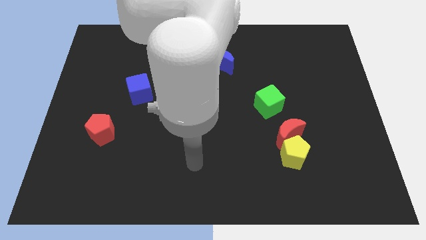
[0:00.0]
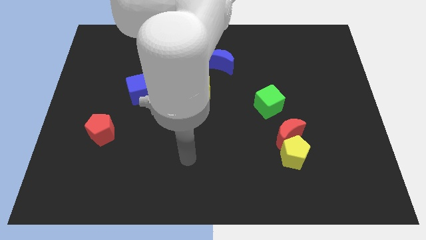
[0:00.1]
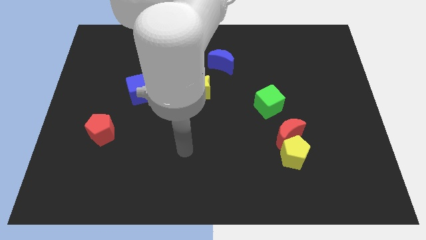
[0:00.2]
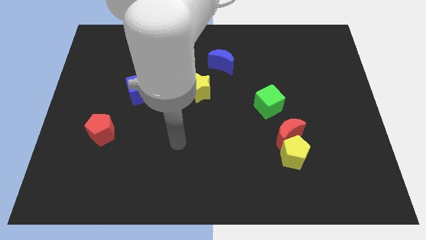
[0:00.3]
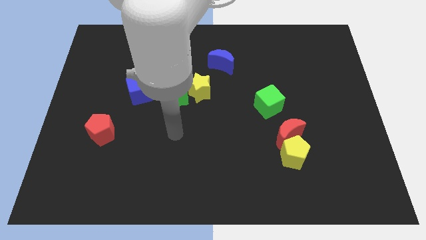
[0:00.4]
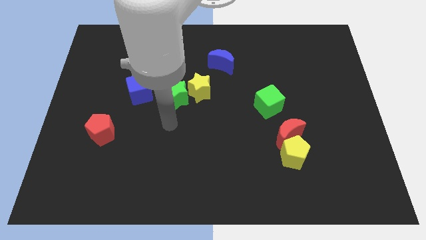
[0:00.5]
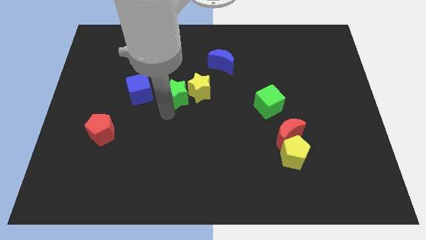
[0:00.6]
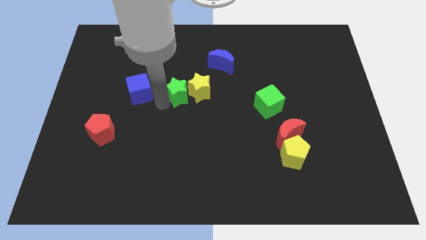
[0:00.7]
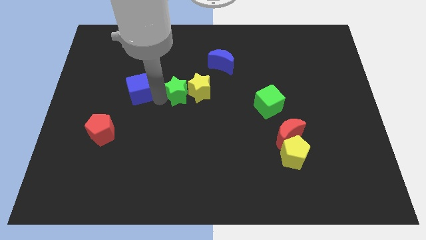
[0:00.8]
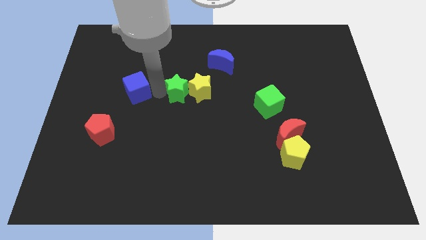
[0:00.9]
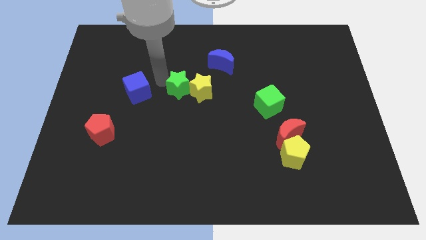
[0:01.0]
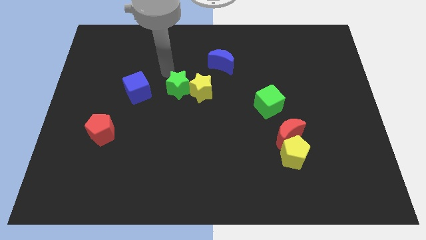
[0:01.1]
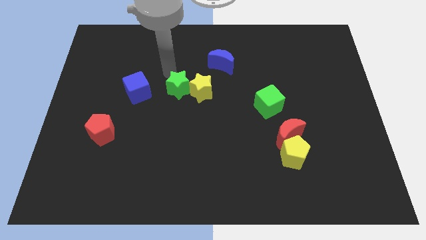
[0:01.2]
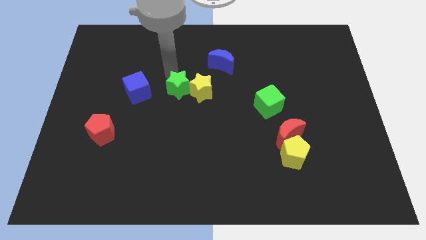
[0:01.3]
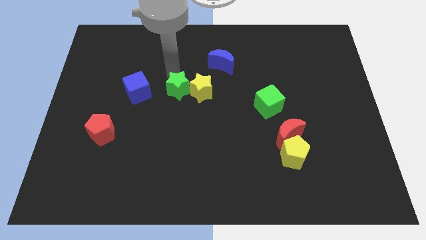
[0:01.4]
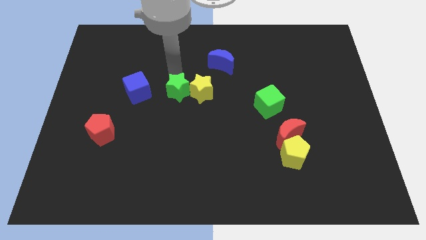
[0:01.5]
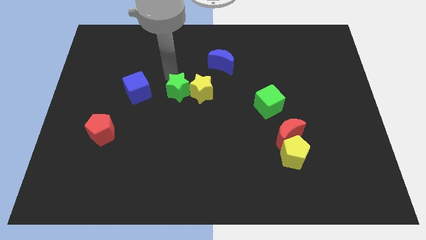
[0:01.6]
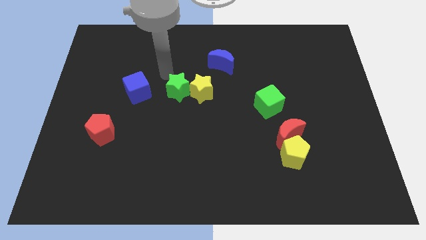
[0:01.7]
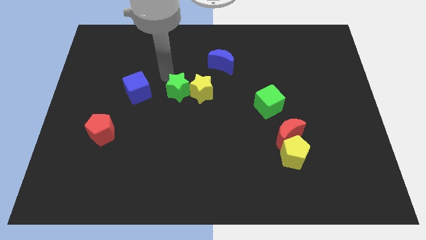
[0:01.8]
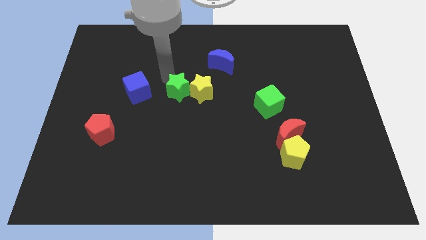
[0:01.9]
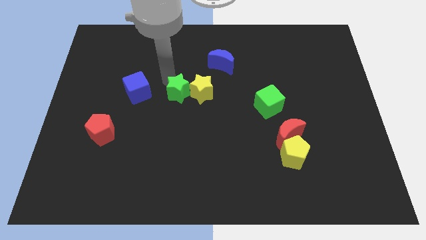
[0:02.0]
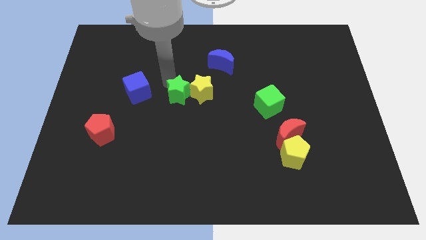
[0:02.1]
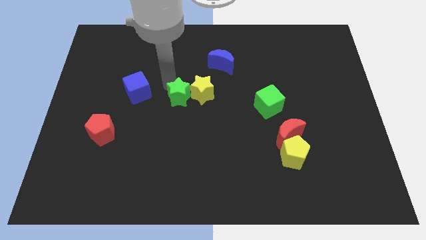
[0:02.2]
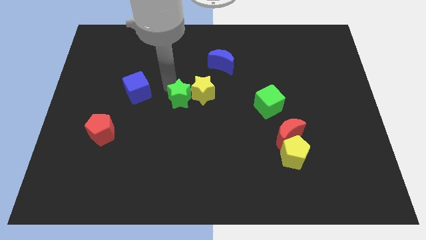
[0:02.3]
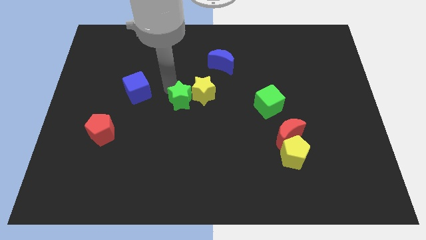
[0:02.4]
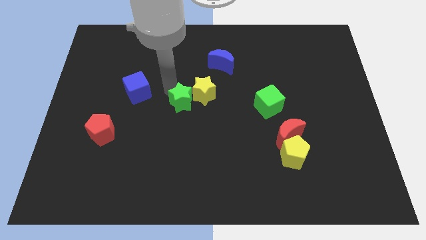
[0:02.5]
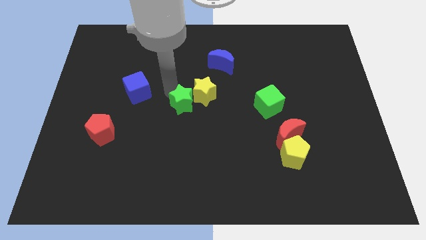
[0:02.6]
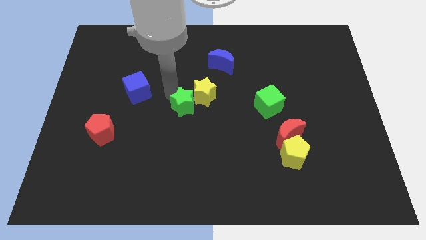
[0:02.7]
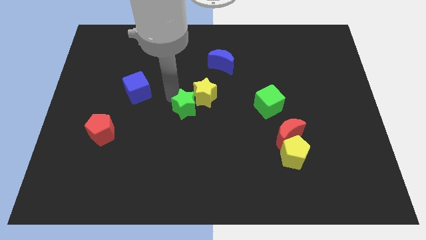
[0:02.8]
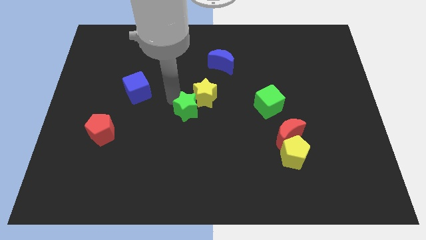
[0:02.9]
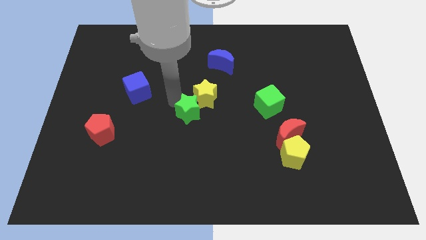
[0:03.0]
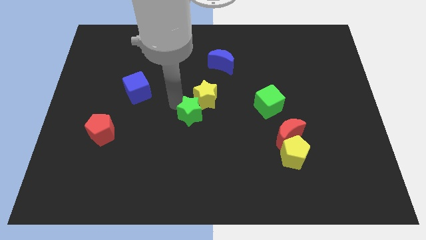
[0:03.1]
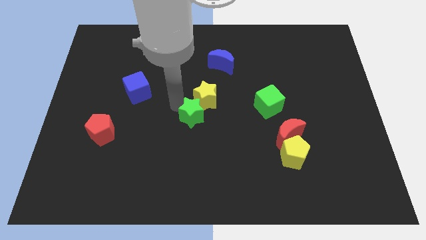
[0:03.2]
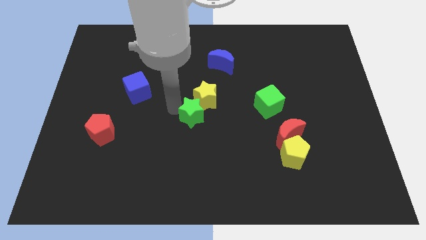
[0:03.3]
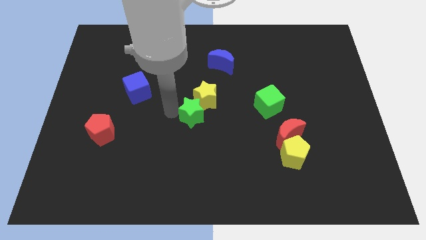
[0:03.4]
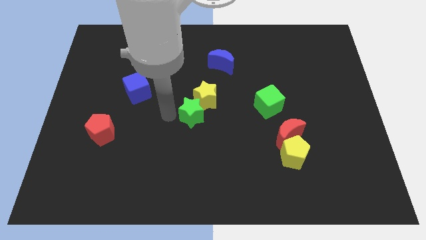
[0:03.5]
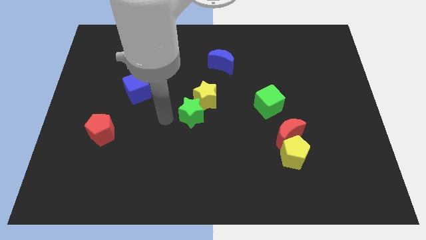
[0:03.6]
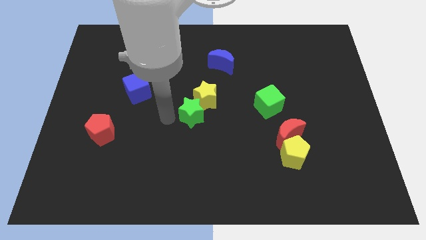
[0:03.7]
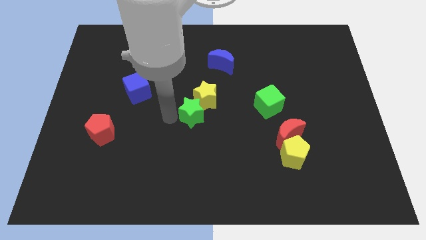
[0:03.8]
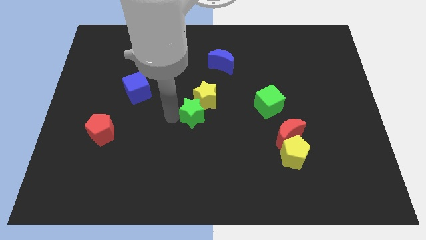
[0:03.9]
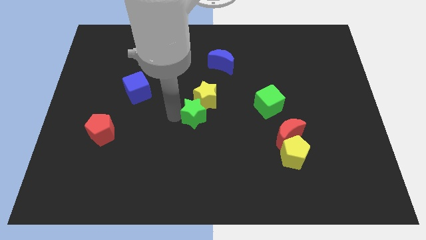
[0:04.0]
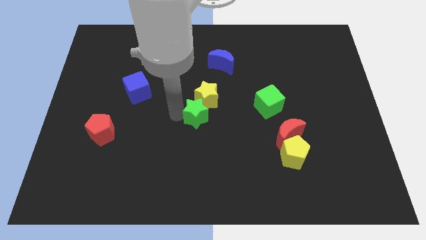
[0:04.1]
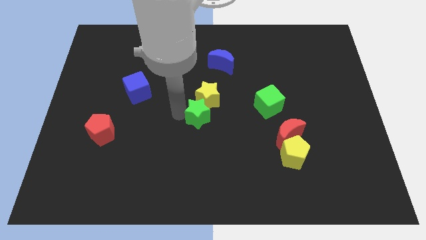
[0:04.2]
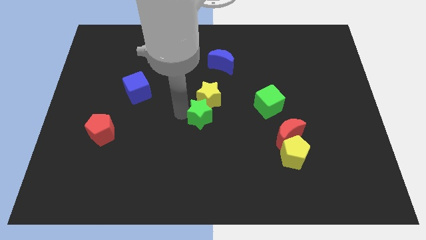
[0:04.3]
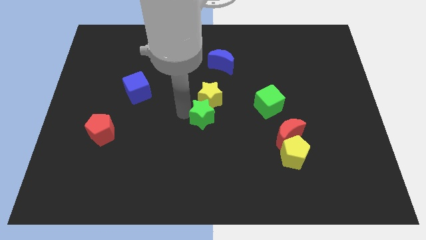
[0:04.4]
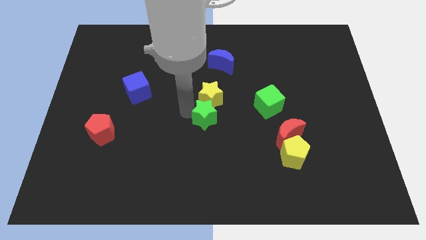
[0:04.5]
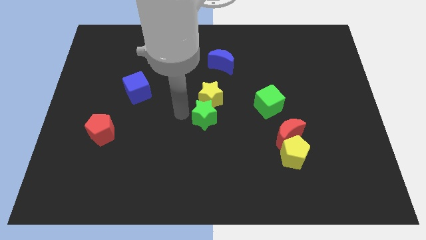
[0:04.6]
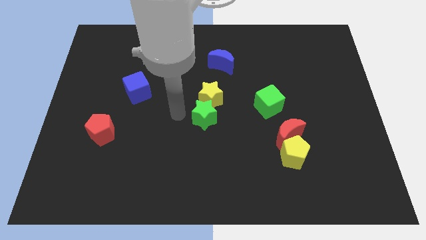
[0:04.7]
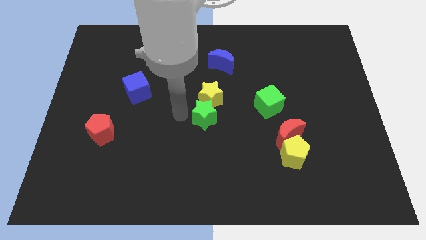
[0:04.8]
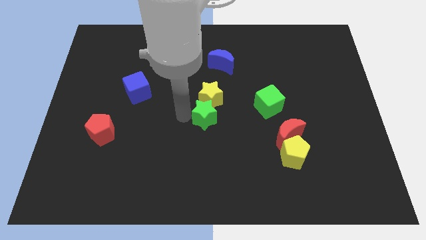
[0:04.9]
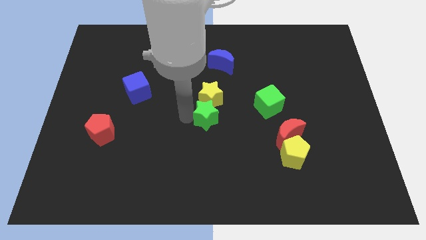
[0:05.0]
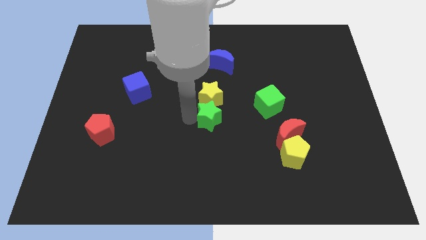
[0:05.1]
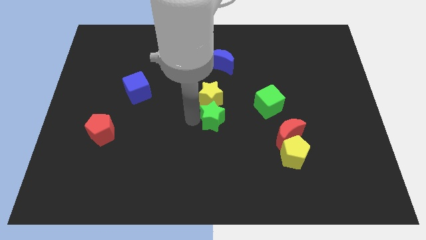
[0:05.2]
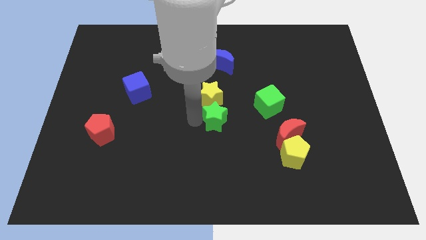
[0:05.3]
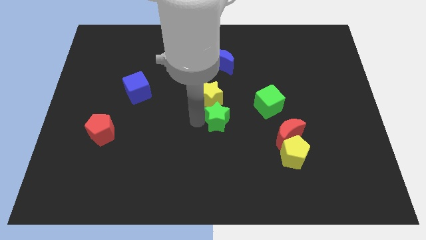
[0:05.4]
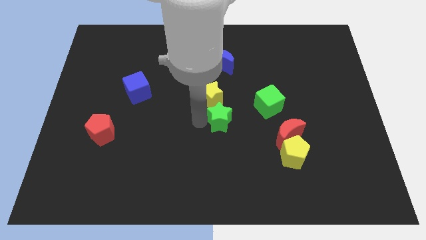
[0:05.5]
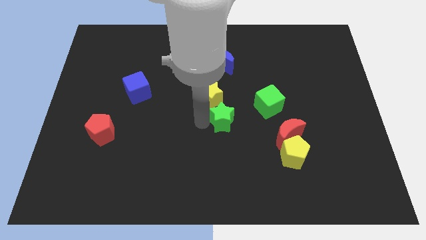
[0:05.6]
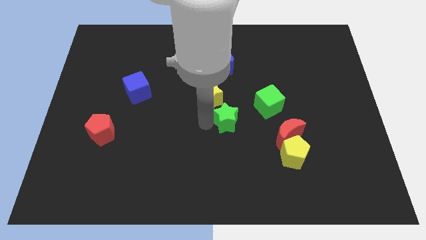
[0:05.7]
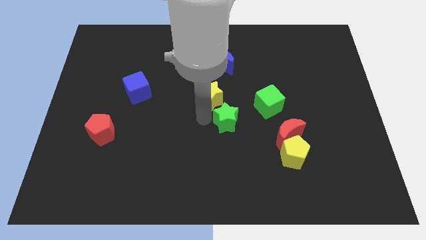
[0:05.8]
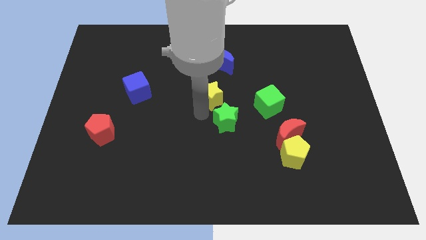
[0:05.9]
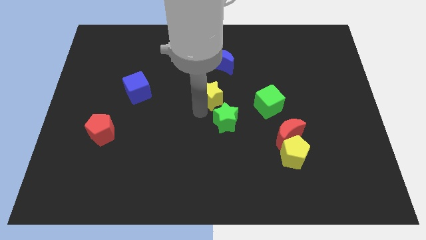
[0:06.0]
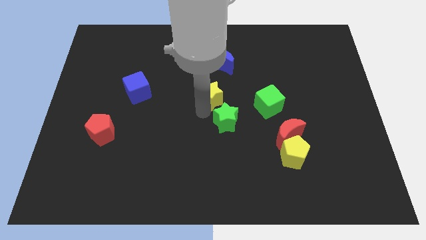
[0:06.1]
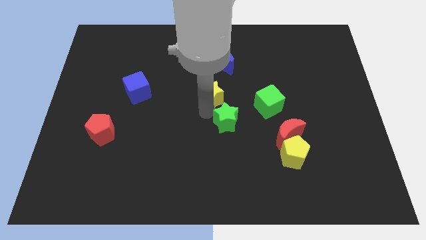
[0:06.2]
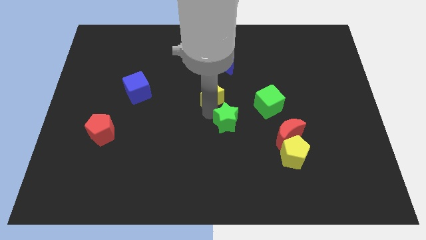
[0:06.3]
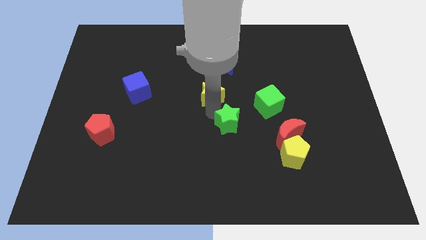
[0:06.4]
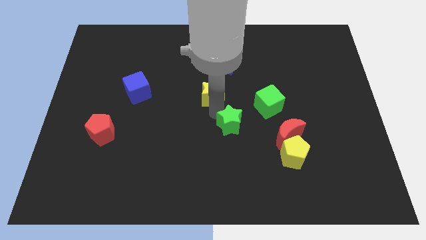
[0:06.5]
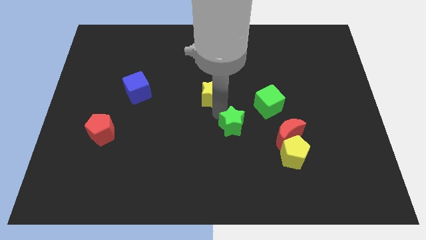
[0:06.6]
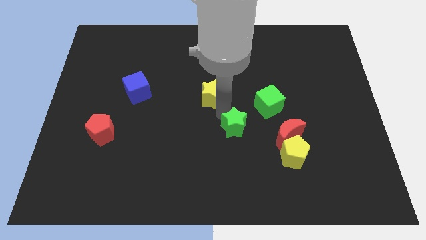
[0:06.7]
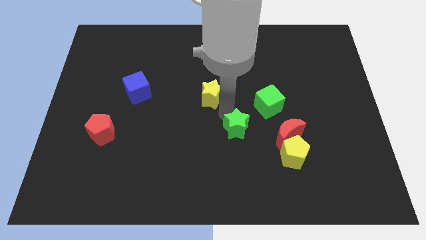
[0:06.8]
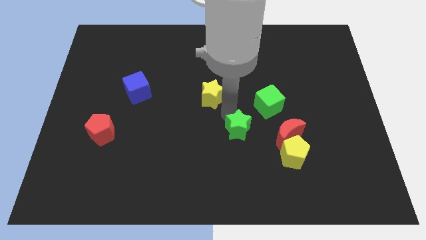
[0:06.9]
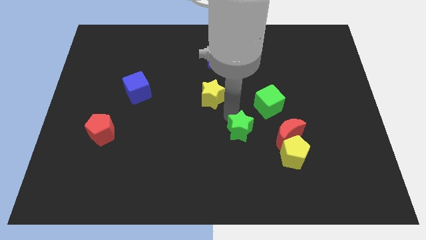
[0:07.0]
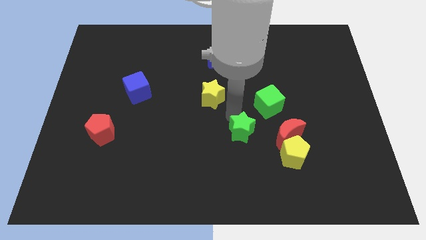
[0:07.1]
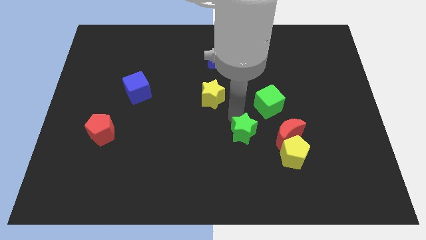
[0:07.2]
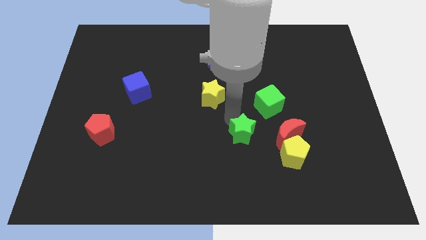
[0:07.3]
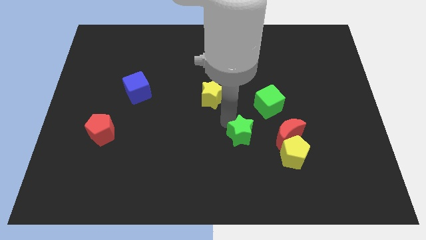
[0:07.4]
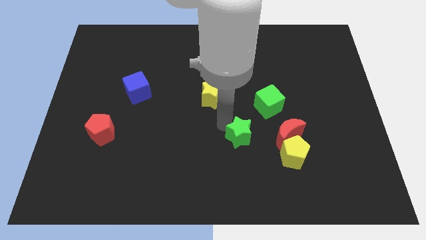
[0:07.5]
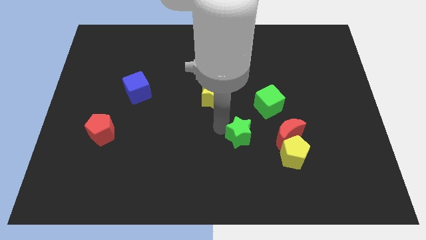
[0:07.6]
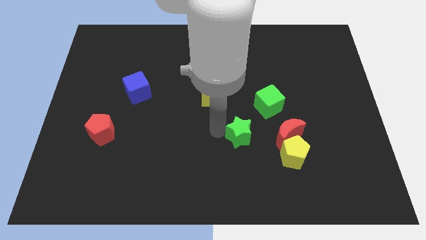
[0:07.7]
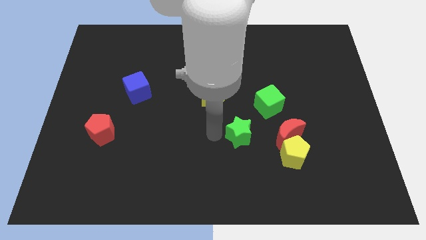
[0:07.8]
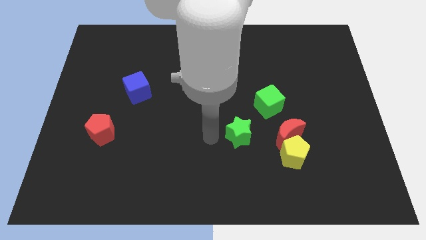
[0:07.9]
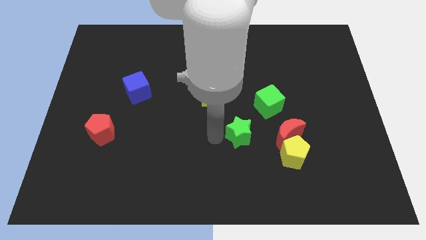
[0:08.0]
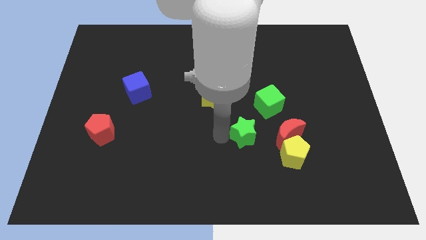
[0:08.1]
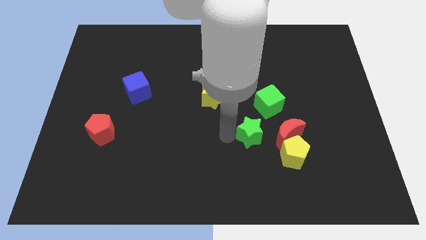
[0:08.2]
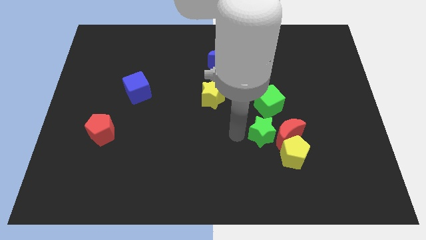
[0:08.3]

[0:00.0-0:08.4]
put the green star to the red moon
